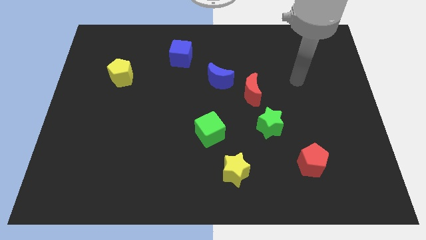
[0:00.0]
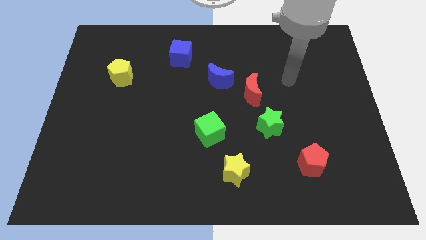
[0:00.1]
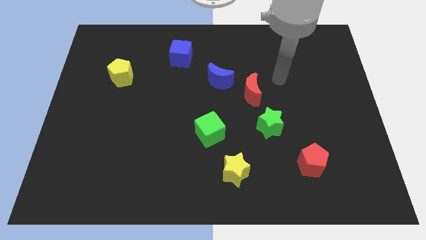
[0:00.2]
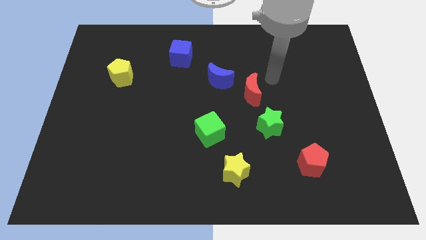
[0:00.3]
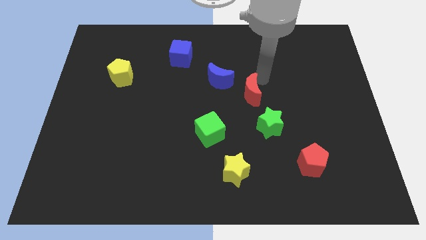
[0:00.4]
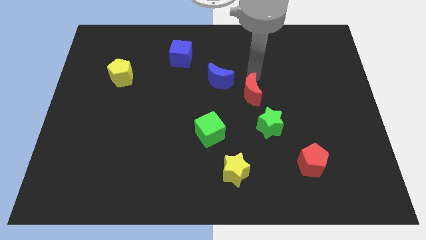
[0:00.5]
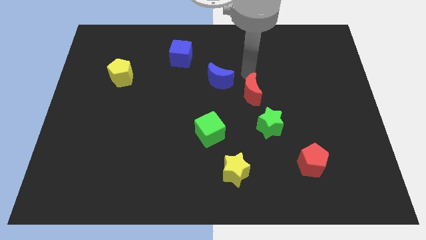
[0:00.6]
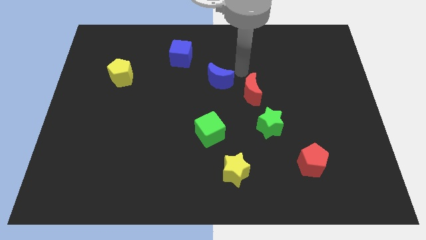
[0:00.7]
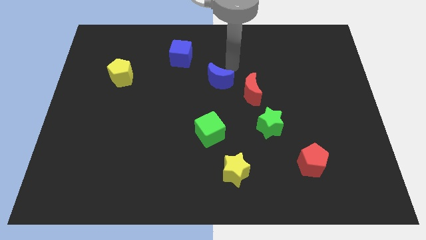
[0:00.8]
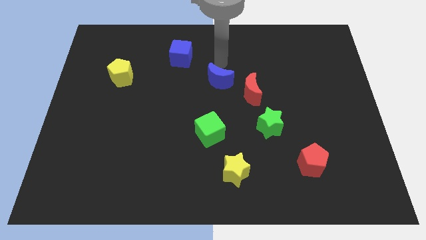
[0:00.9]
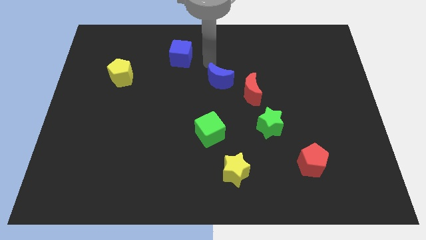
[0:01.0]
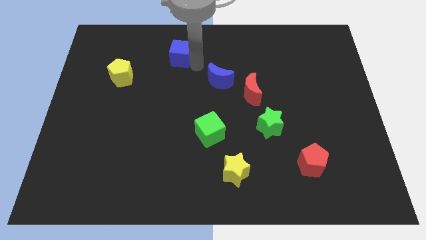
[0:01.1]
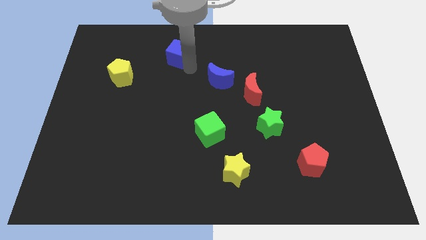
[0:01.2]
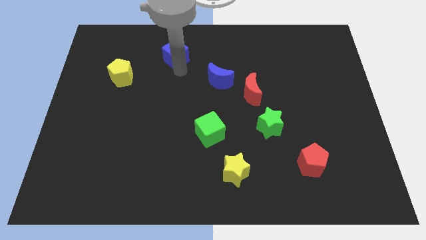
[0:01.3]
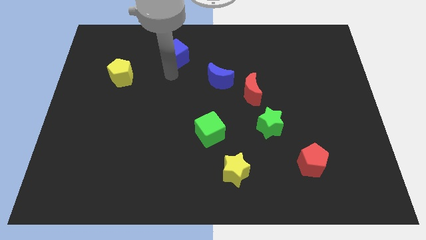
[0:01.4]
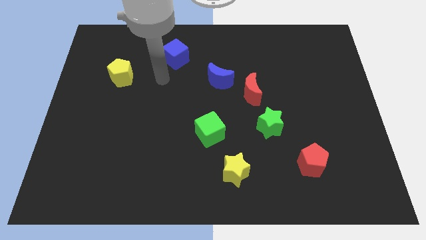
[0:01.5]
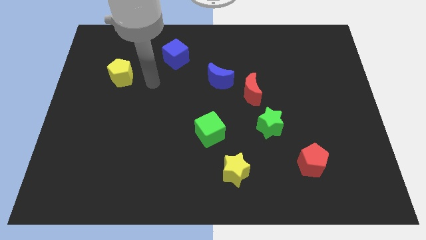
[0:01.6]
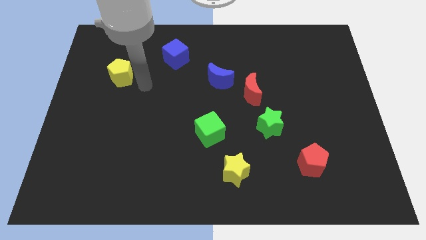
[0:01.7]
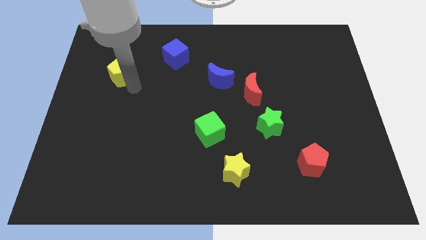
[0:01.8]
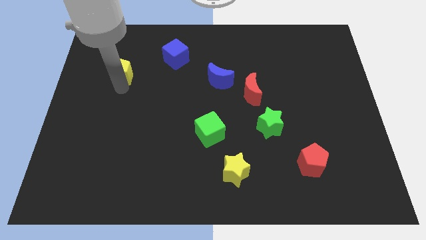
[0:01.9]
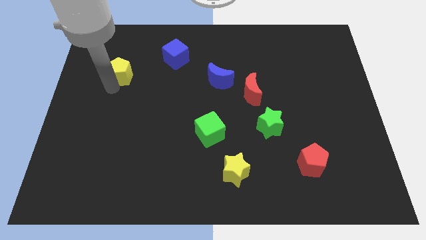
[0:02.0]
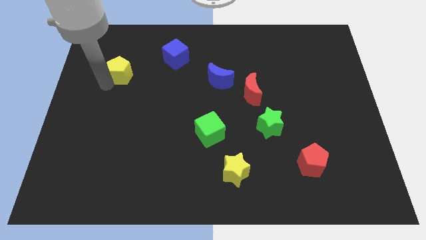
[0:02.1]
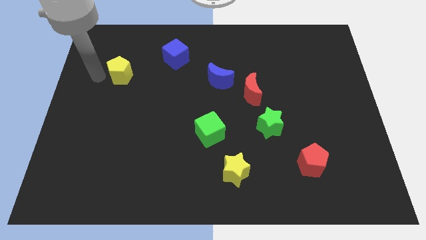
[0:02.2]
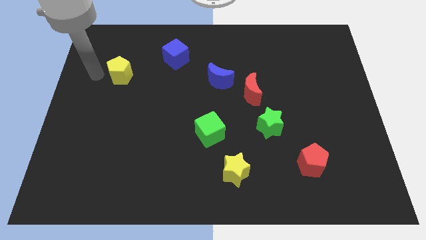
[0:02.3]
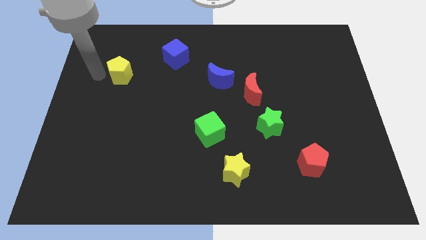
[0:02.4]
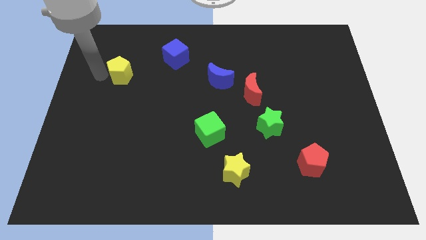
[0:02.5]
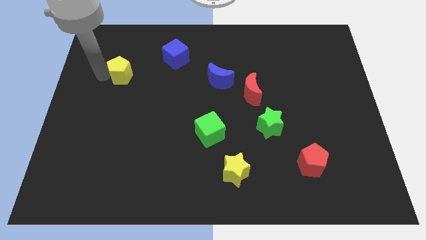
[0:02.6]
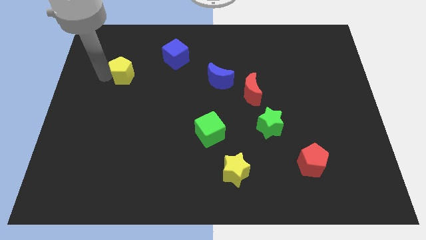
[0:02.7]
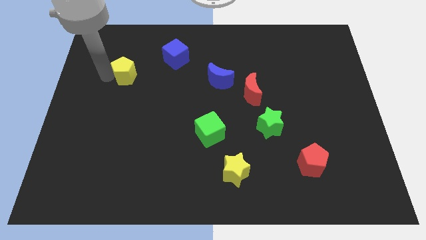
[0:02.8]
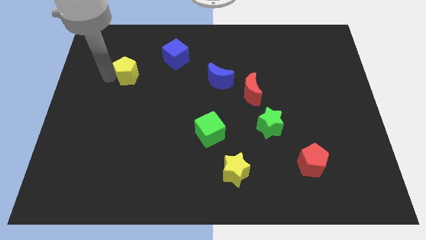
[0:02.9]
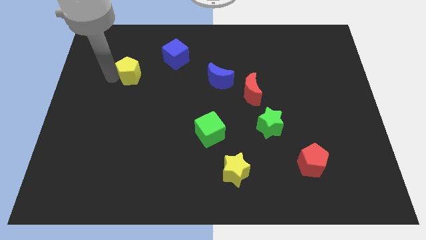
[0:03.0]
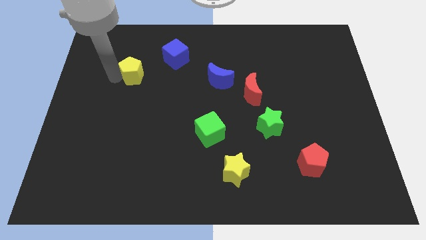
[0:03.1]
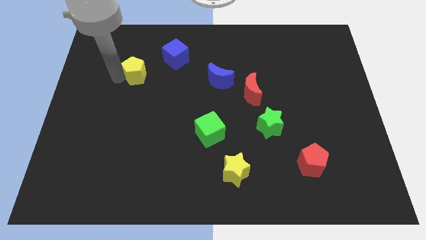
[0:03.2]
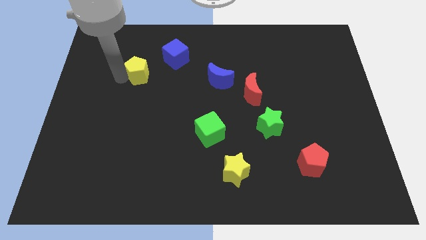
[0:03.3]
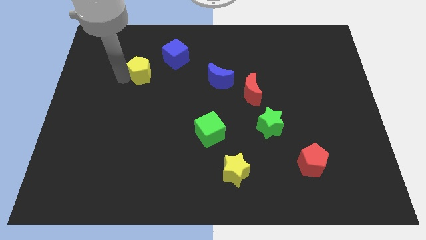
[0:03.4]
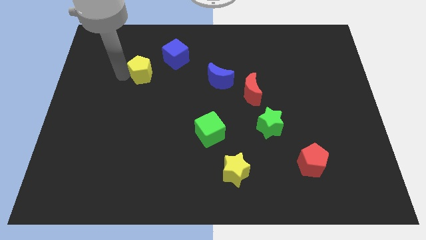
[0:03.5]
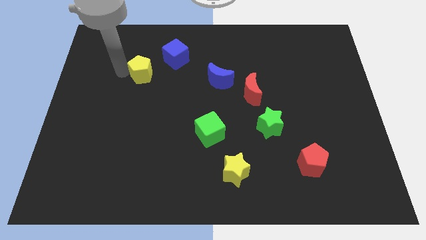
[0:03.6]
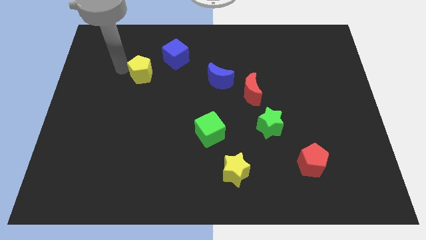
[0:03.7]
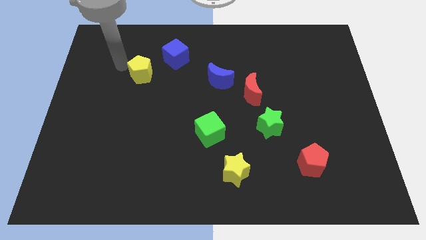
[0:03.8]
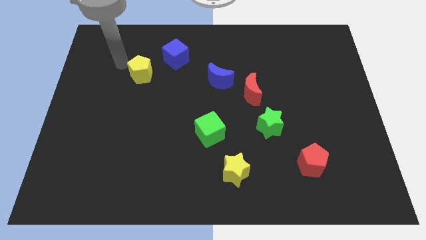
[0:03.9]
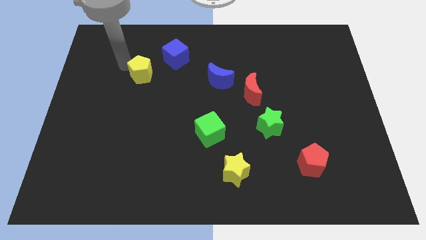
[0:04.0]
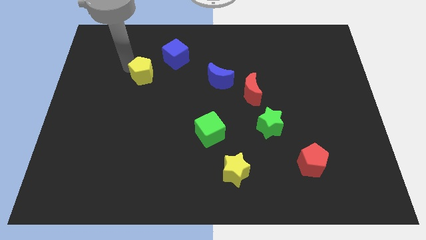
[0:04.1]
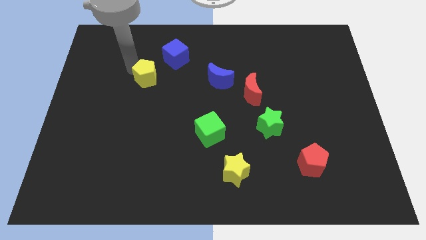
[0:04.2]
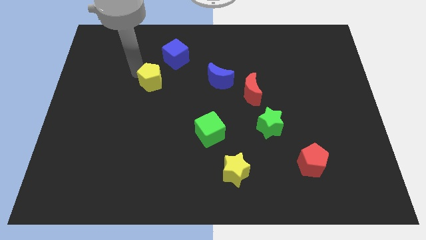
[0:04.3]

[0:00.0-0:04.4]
move the yellow pentagon right a bit

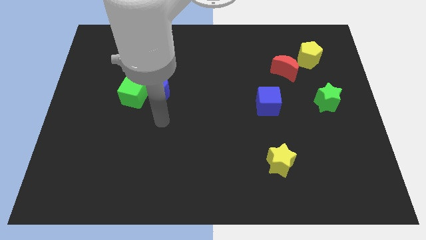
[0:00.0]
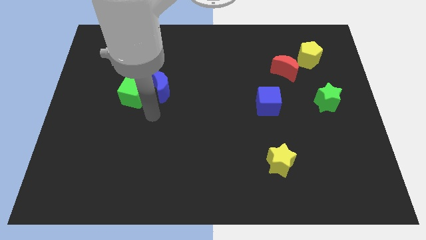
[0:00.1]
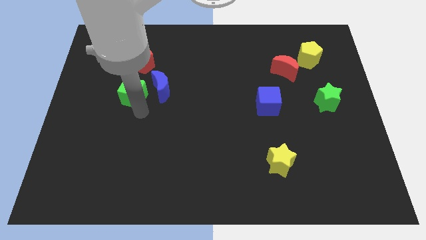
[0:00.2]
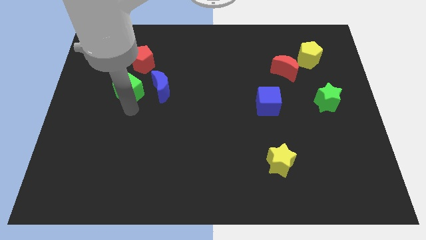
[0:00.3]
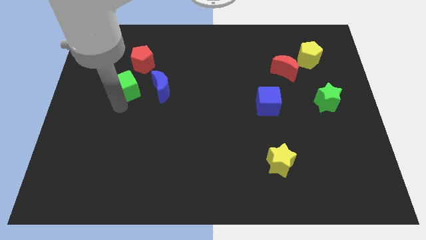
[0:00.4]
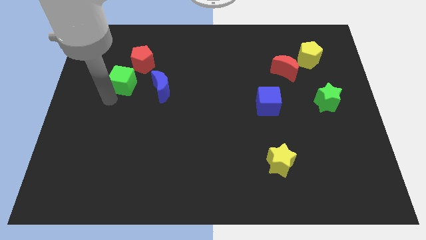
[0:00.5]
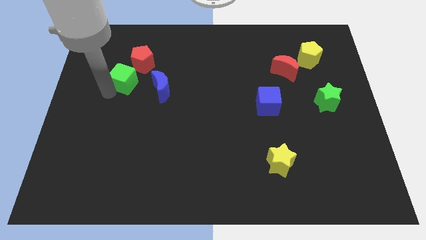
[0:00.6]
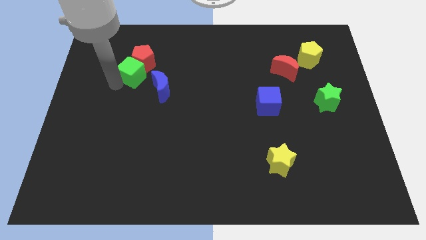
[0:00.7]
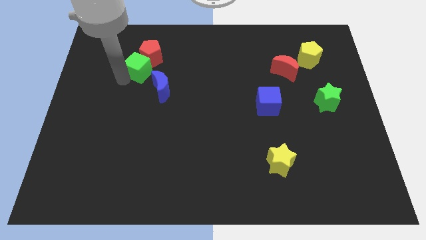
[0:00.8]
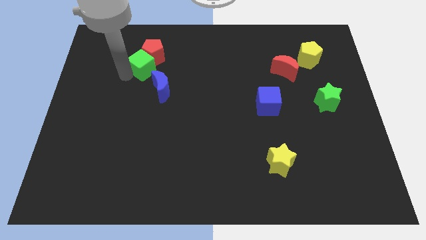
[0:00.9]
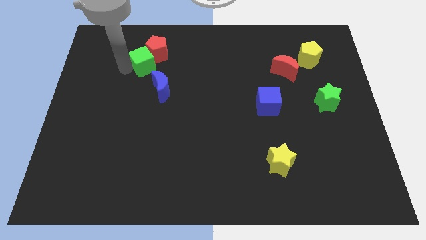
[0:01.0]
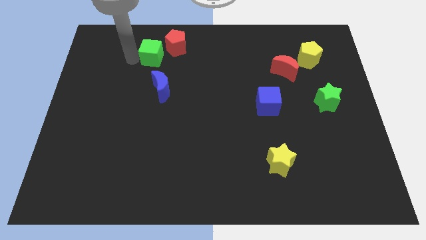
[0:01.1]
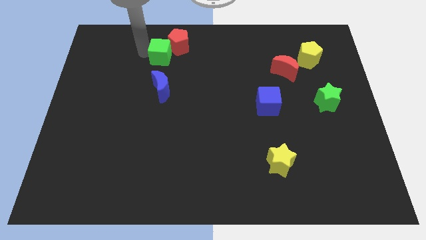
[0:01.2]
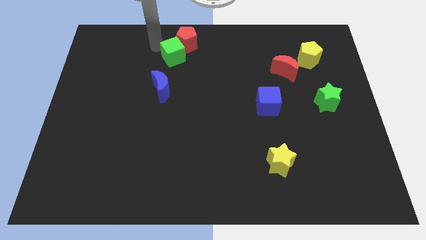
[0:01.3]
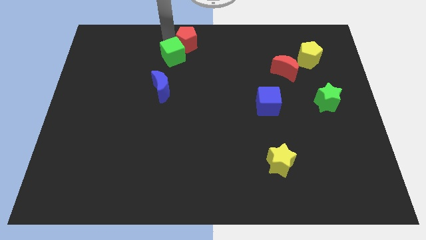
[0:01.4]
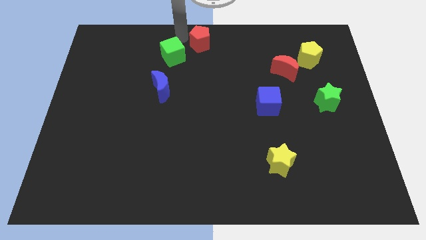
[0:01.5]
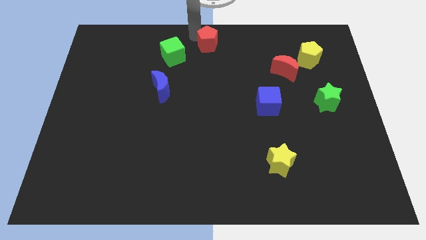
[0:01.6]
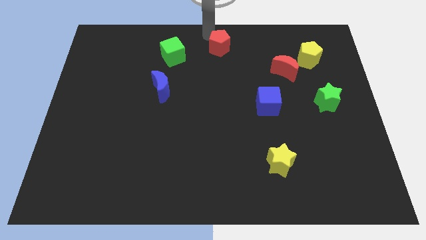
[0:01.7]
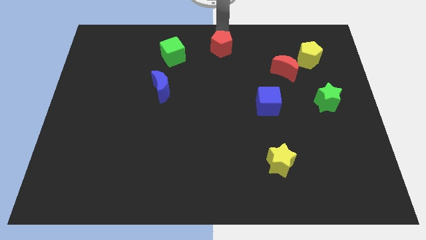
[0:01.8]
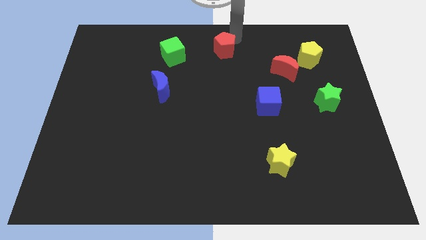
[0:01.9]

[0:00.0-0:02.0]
move the red pentagon right

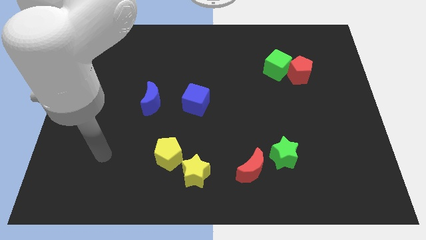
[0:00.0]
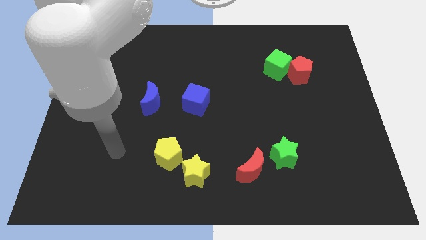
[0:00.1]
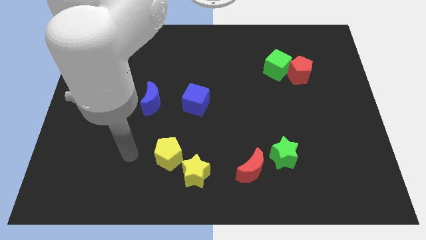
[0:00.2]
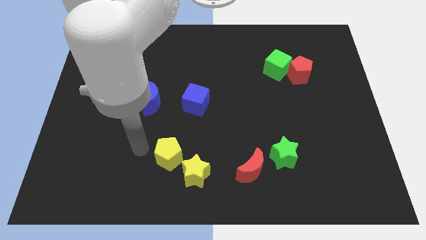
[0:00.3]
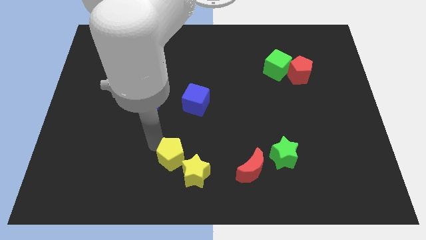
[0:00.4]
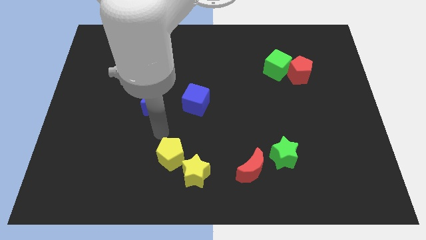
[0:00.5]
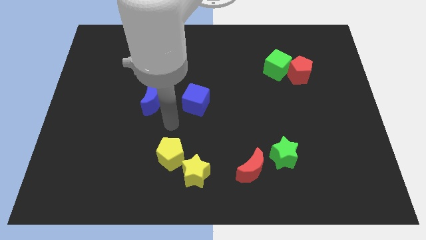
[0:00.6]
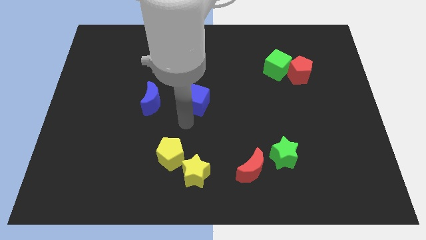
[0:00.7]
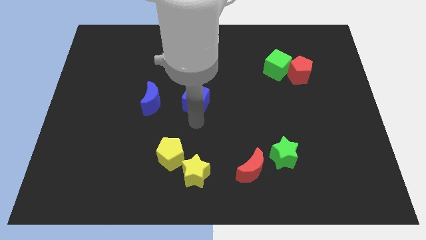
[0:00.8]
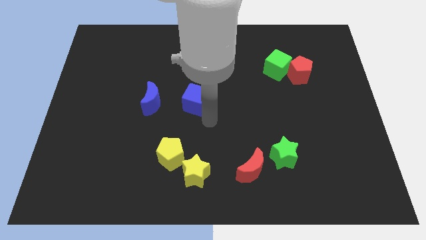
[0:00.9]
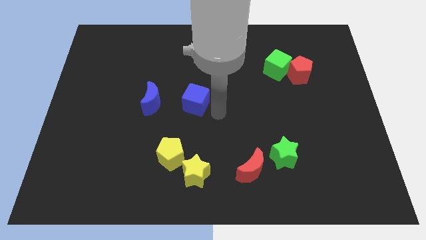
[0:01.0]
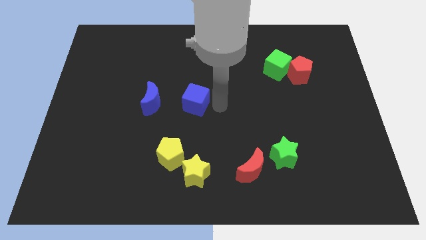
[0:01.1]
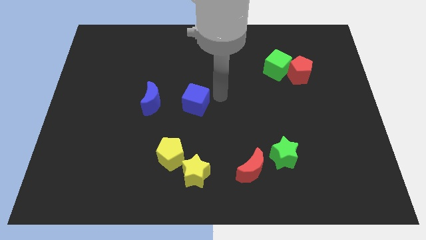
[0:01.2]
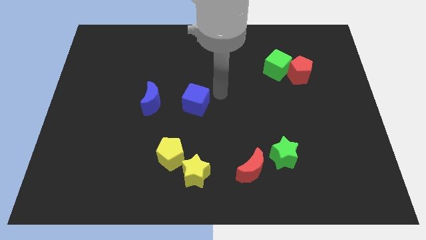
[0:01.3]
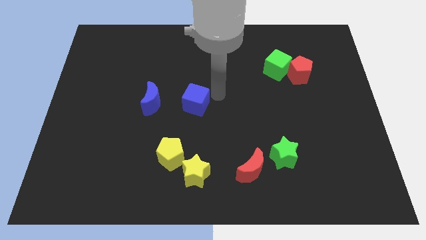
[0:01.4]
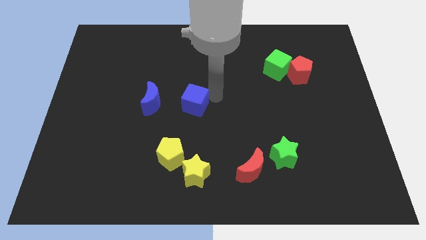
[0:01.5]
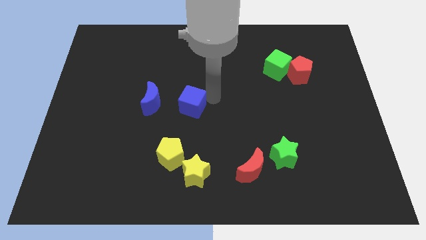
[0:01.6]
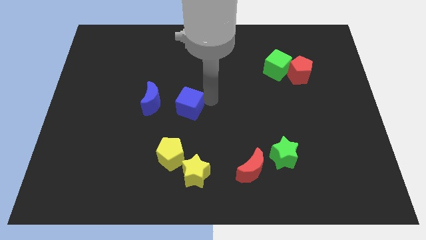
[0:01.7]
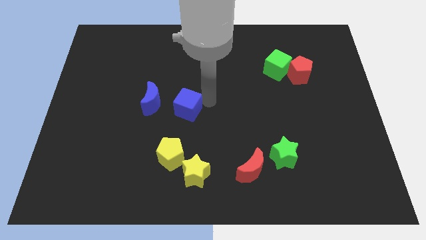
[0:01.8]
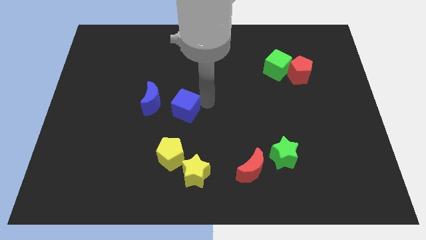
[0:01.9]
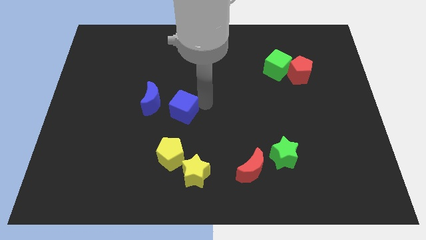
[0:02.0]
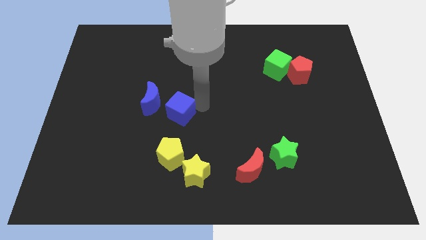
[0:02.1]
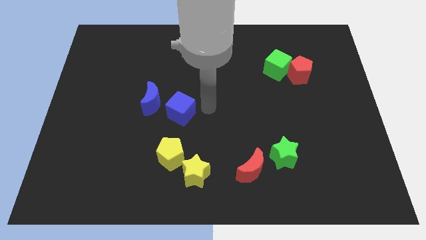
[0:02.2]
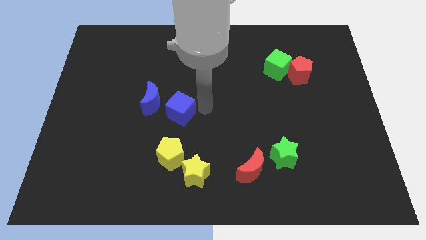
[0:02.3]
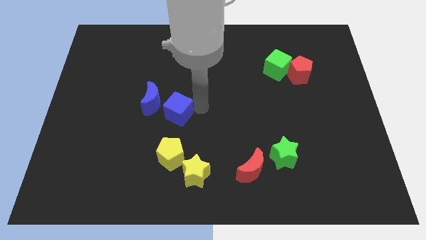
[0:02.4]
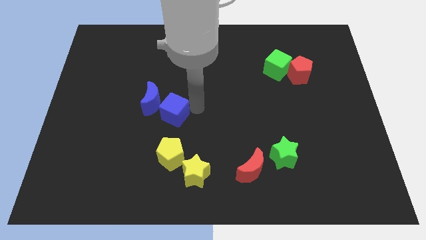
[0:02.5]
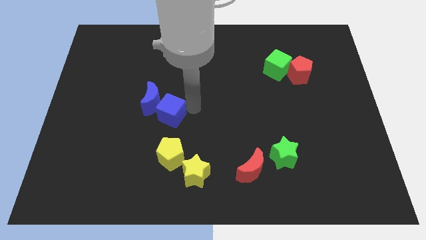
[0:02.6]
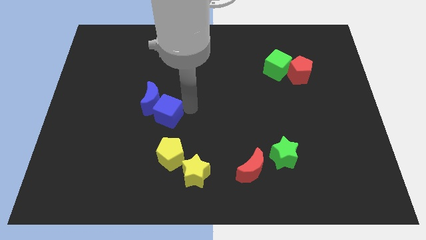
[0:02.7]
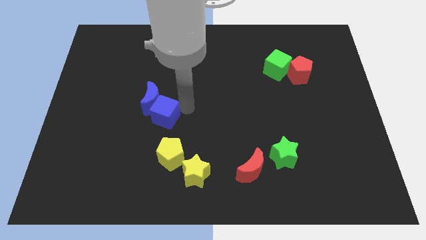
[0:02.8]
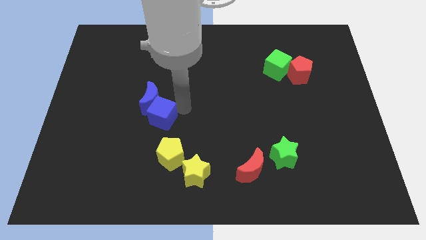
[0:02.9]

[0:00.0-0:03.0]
move the blue cube a bit left
